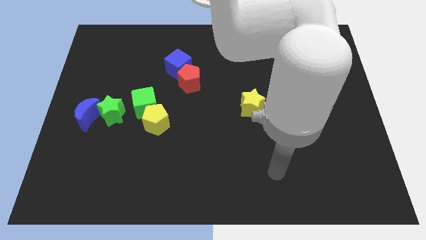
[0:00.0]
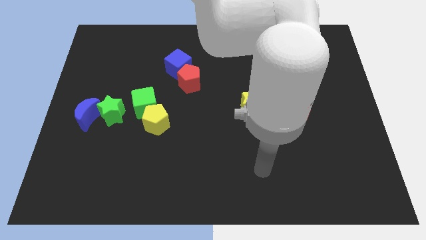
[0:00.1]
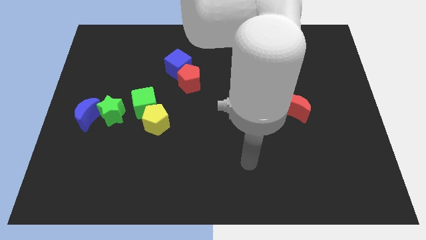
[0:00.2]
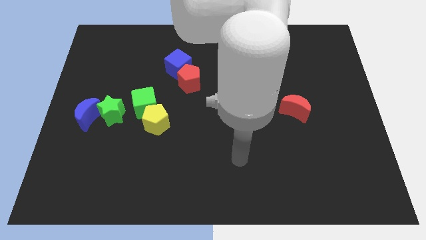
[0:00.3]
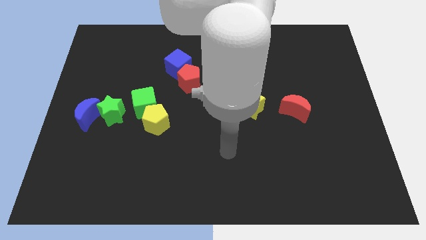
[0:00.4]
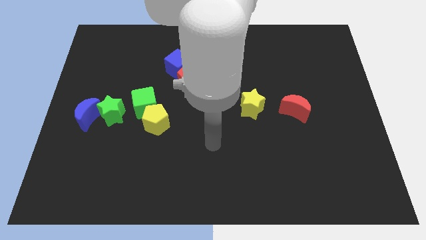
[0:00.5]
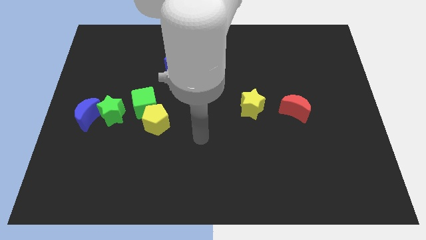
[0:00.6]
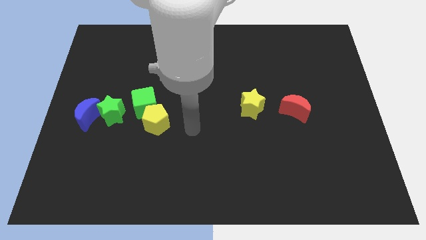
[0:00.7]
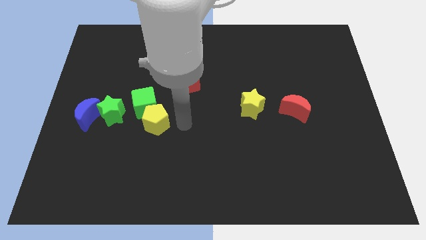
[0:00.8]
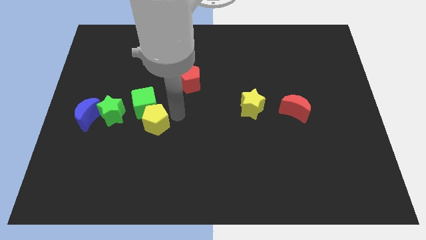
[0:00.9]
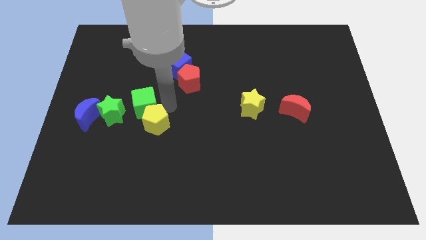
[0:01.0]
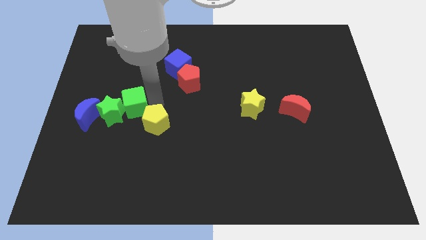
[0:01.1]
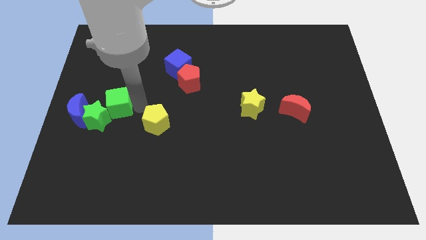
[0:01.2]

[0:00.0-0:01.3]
move the yellow pentagon away from the green cube

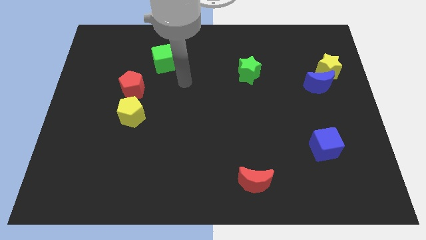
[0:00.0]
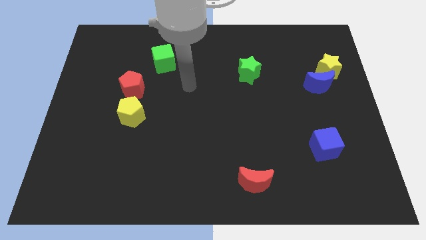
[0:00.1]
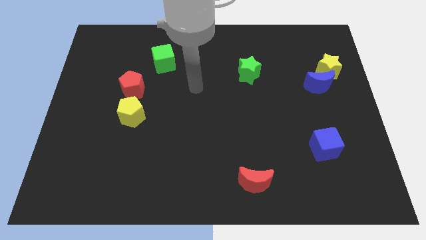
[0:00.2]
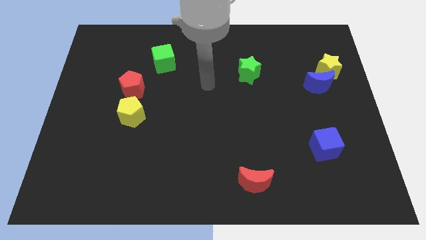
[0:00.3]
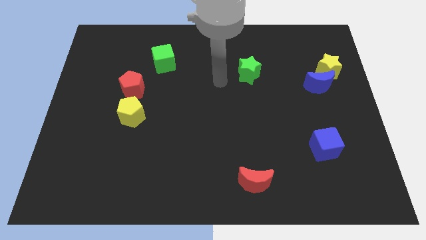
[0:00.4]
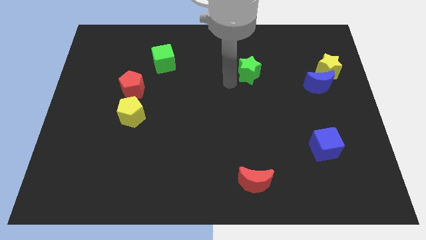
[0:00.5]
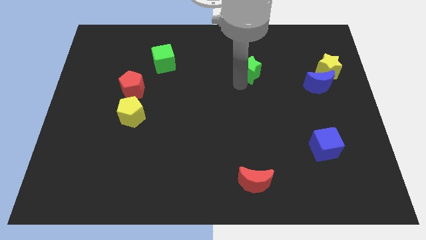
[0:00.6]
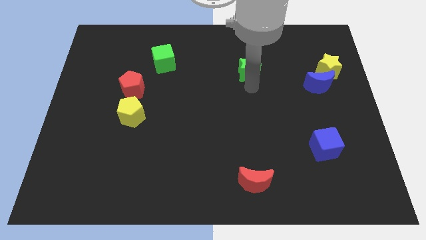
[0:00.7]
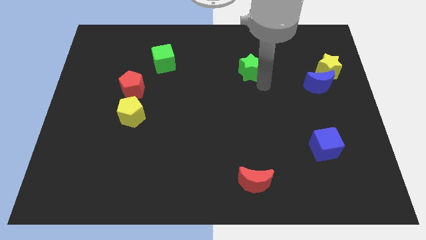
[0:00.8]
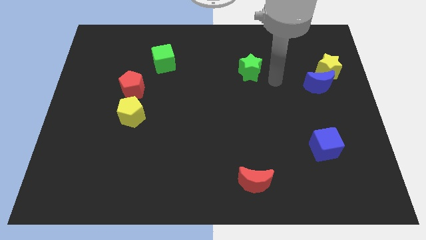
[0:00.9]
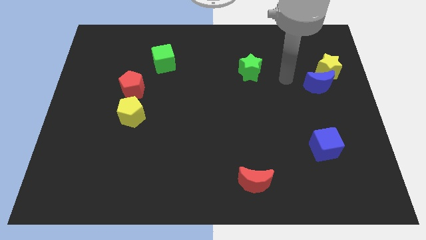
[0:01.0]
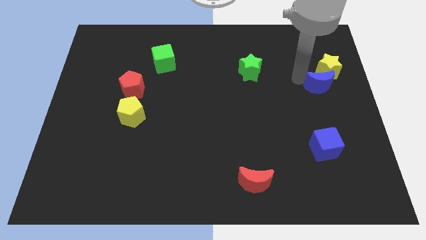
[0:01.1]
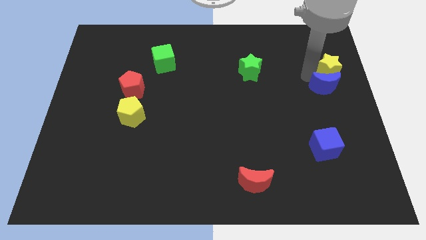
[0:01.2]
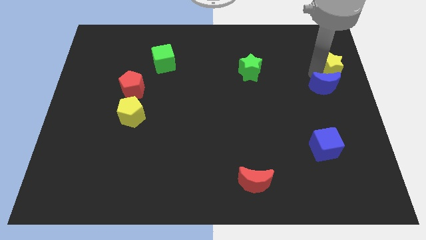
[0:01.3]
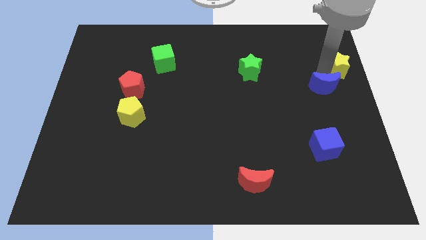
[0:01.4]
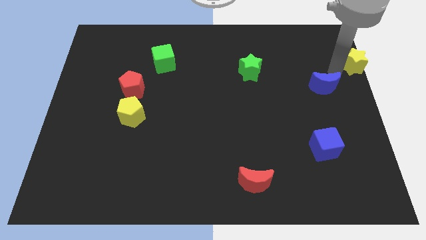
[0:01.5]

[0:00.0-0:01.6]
separate the blue moon from the yellow star

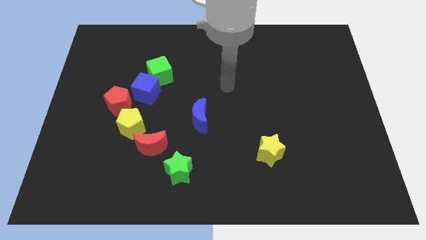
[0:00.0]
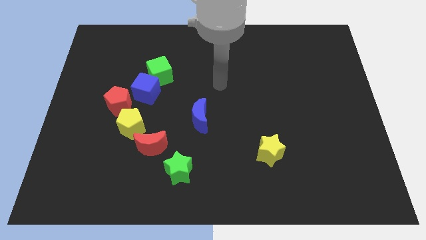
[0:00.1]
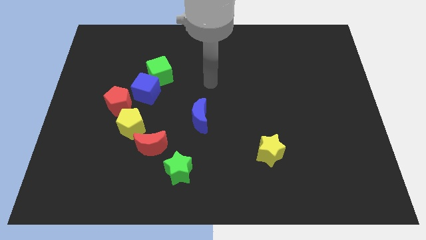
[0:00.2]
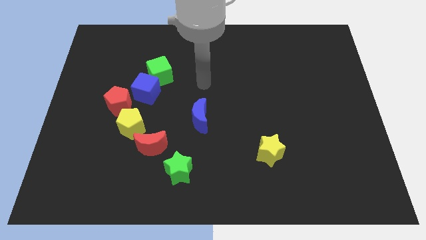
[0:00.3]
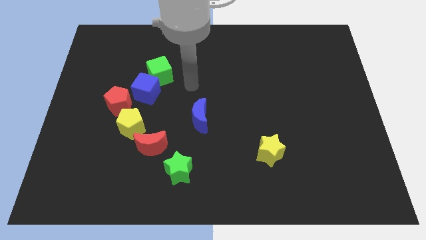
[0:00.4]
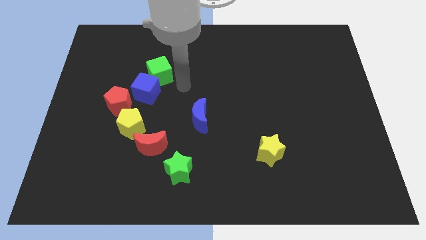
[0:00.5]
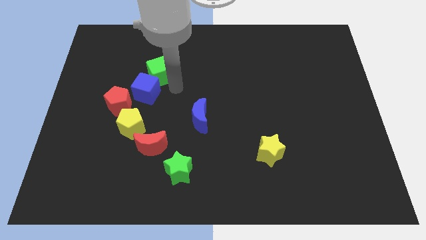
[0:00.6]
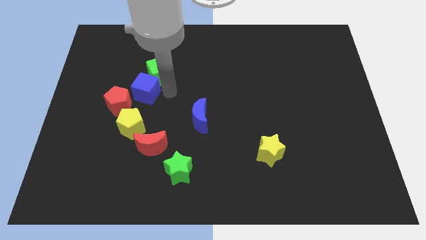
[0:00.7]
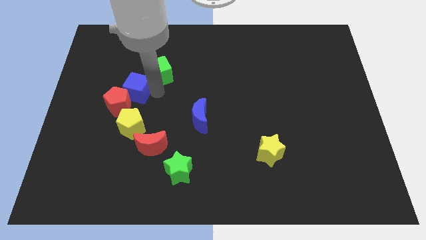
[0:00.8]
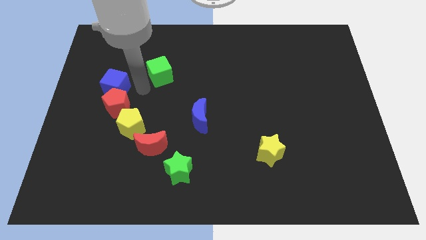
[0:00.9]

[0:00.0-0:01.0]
move the green cube away from the blue cube

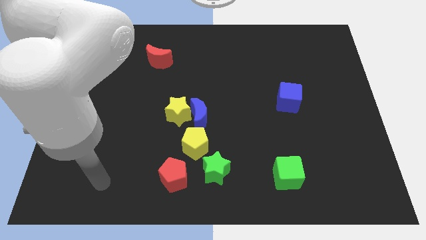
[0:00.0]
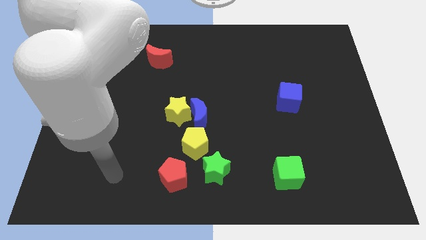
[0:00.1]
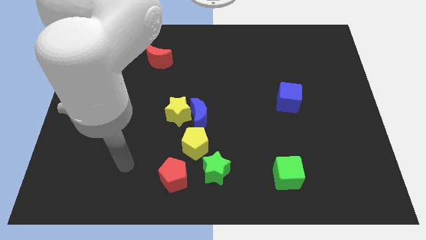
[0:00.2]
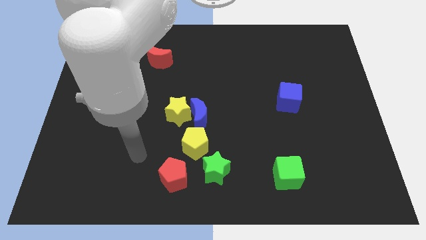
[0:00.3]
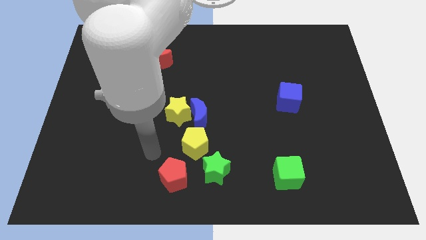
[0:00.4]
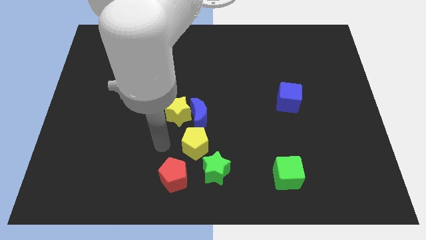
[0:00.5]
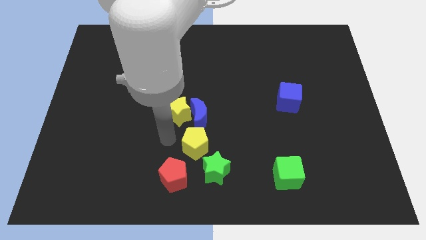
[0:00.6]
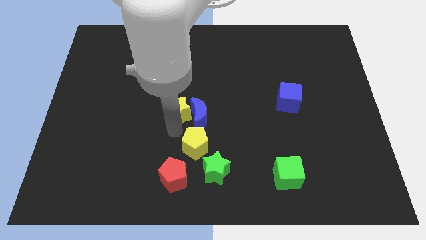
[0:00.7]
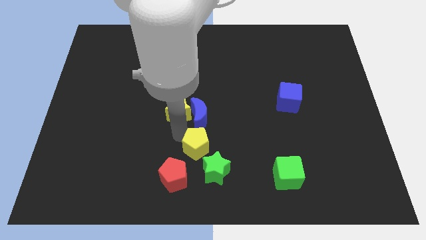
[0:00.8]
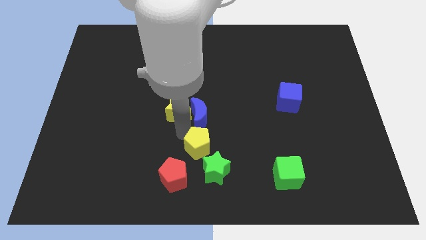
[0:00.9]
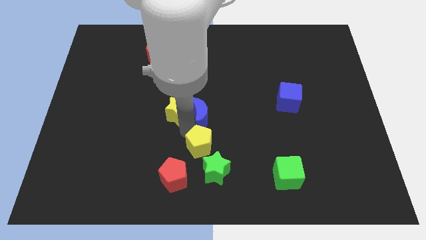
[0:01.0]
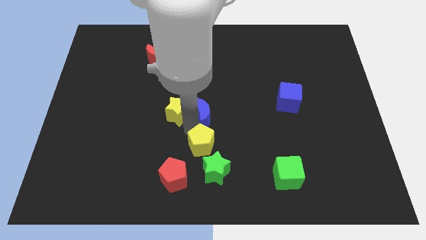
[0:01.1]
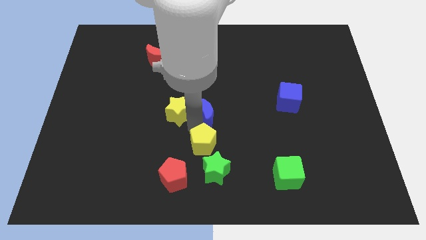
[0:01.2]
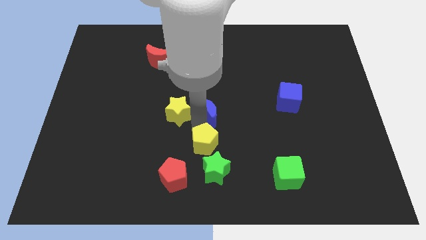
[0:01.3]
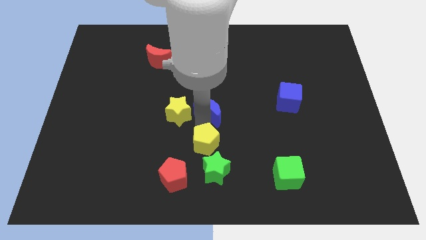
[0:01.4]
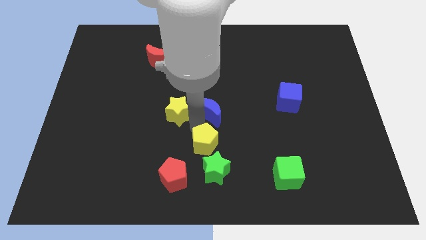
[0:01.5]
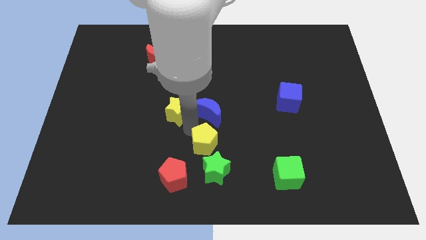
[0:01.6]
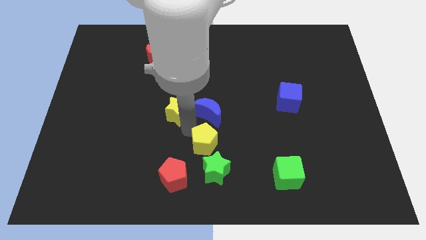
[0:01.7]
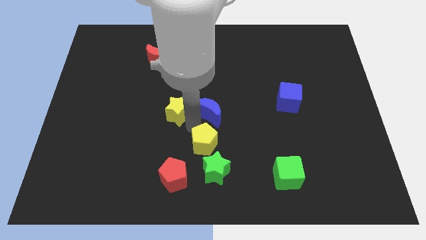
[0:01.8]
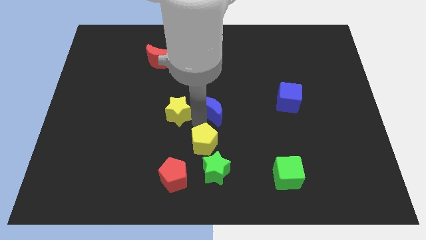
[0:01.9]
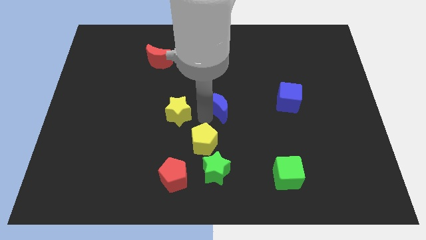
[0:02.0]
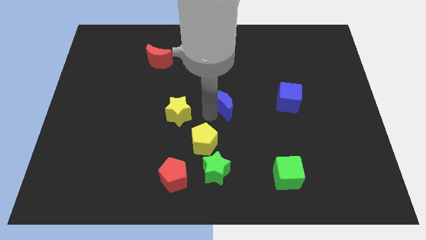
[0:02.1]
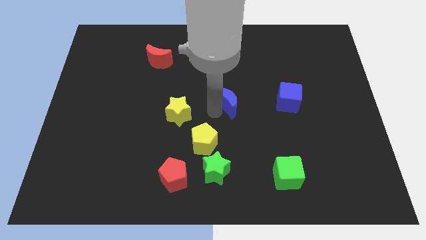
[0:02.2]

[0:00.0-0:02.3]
pull the blue moon apart from the yellow star and yellow pentagon

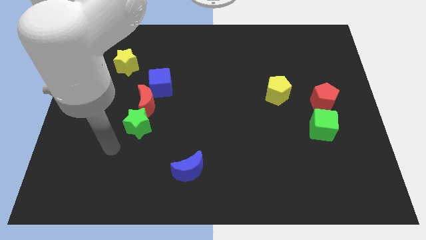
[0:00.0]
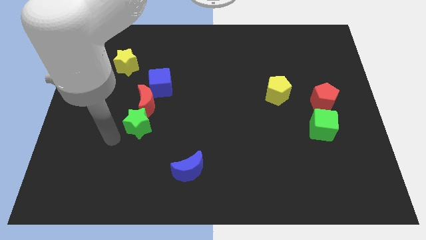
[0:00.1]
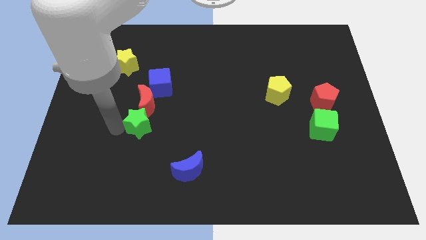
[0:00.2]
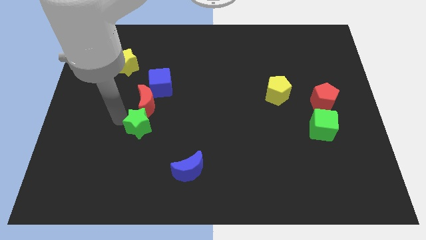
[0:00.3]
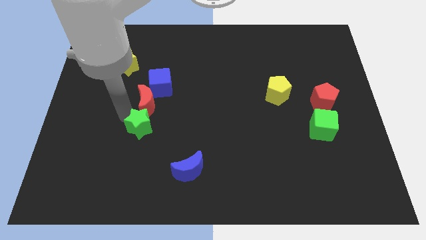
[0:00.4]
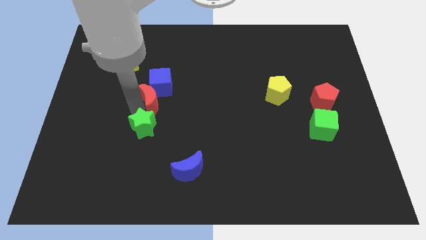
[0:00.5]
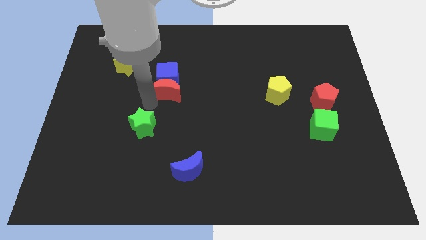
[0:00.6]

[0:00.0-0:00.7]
separate the green star from the red moon

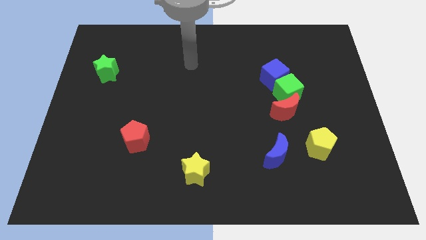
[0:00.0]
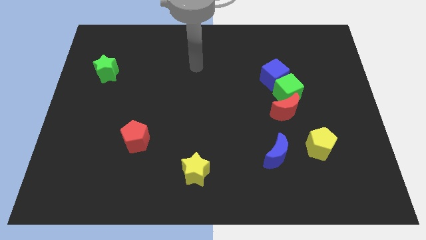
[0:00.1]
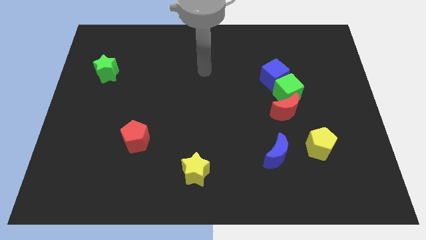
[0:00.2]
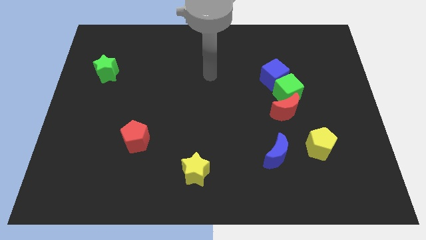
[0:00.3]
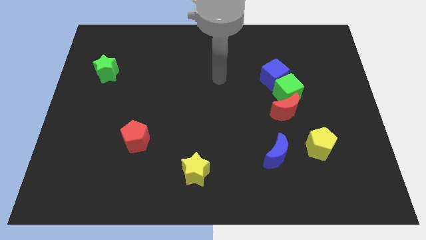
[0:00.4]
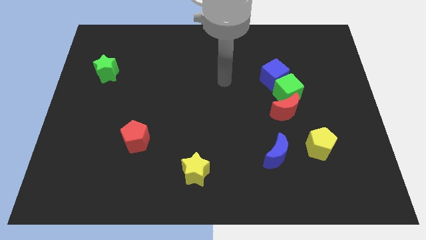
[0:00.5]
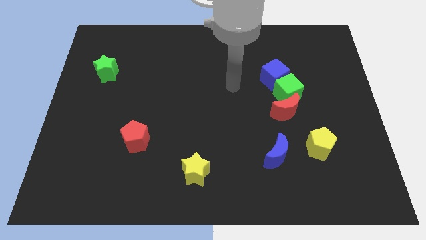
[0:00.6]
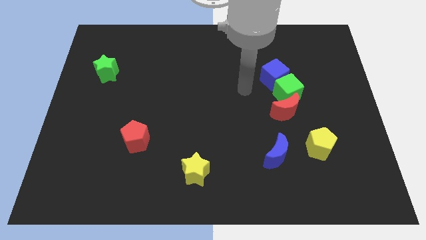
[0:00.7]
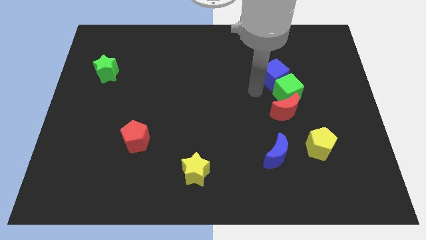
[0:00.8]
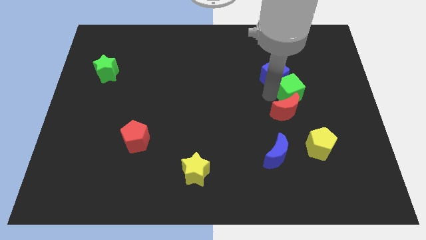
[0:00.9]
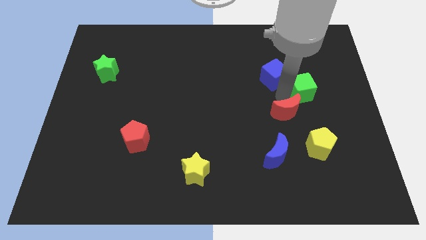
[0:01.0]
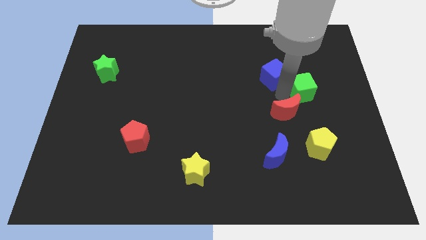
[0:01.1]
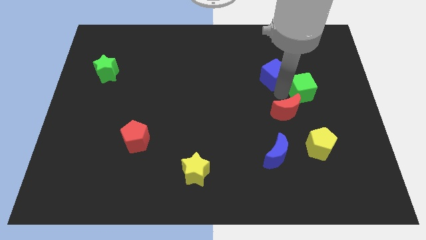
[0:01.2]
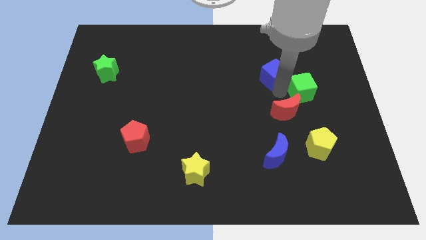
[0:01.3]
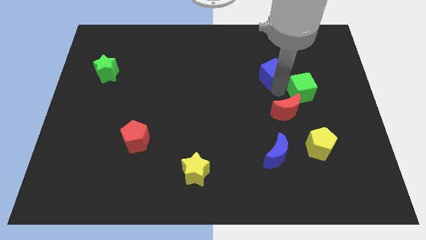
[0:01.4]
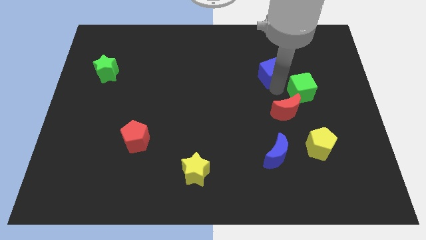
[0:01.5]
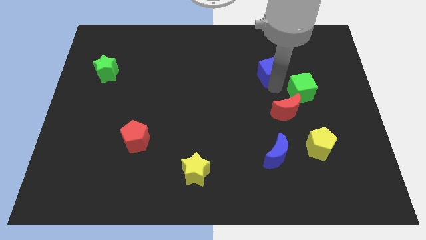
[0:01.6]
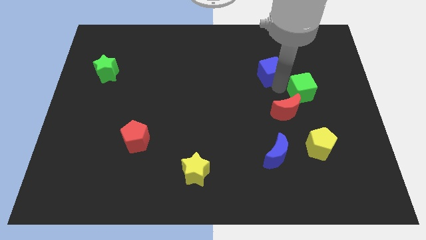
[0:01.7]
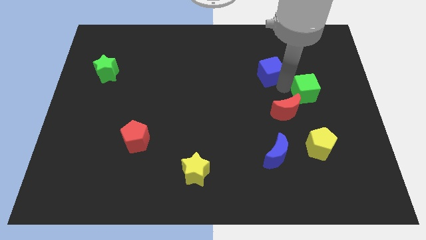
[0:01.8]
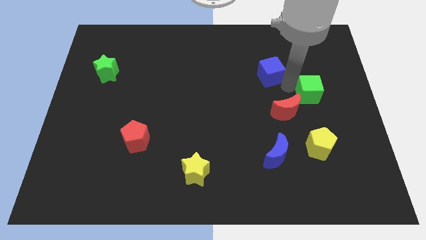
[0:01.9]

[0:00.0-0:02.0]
pull the blue cube apart from the green cube

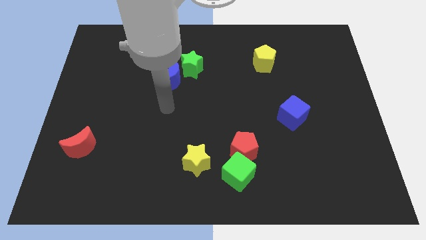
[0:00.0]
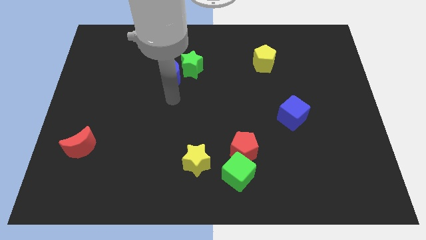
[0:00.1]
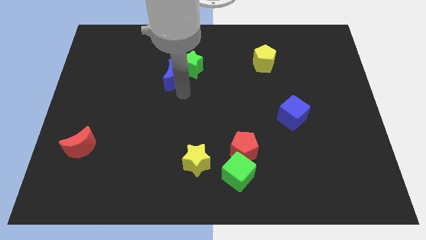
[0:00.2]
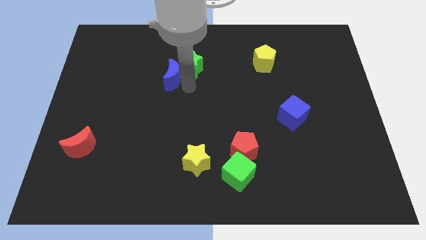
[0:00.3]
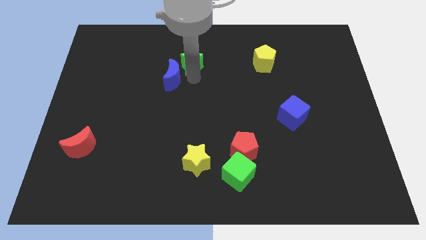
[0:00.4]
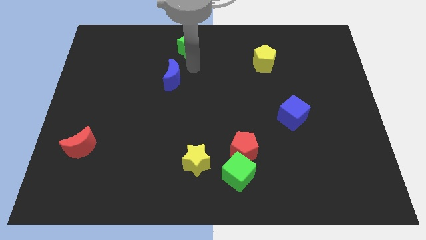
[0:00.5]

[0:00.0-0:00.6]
separate the blue moon from the green star
